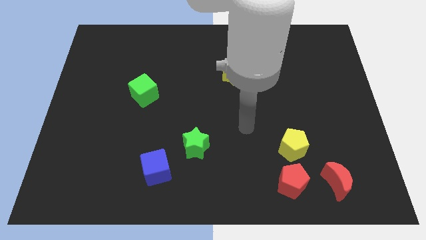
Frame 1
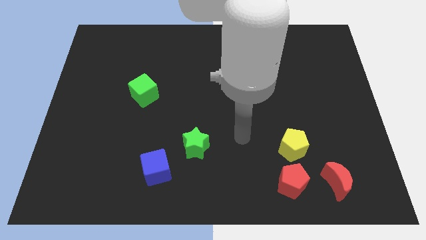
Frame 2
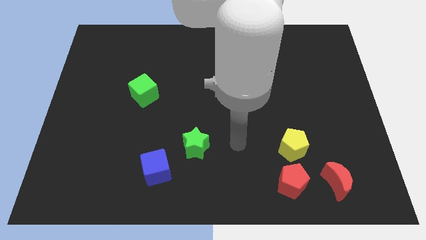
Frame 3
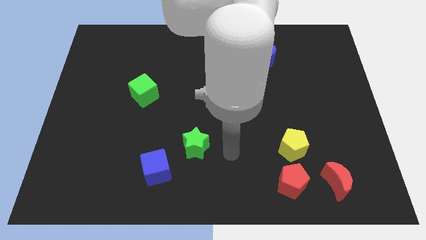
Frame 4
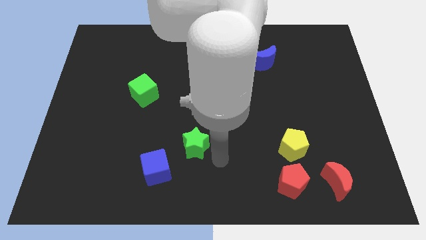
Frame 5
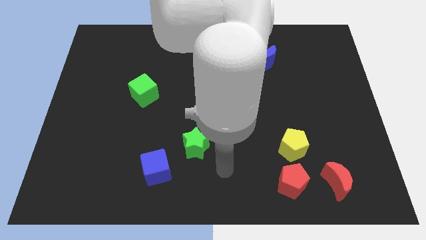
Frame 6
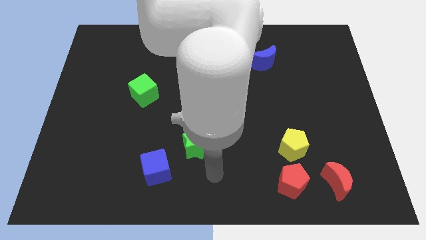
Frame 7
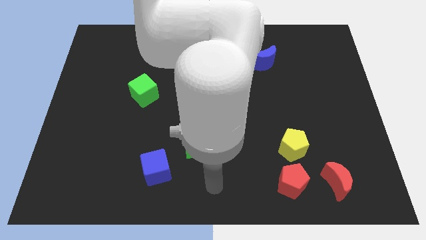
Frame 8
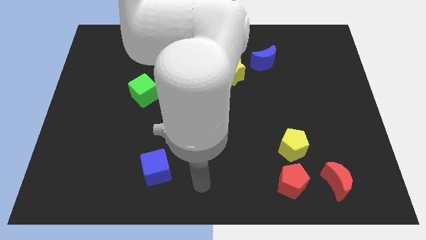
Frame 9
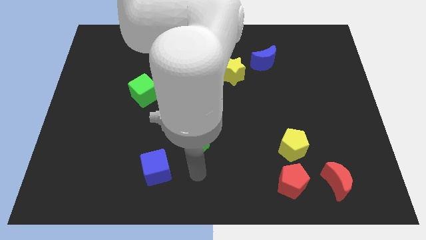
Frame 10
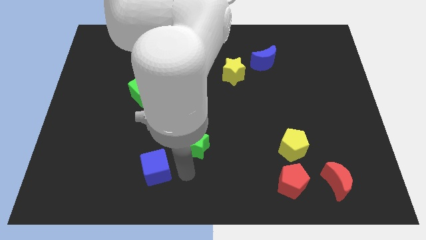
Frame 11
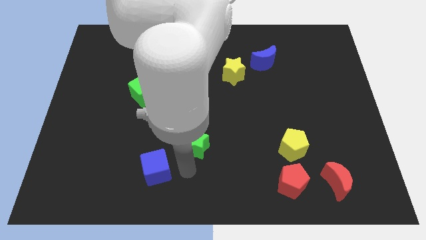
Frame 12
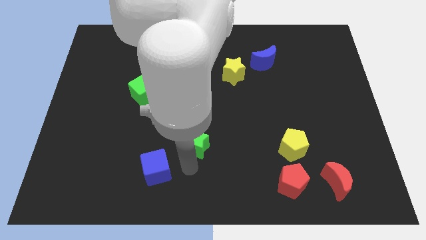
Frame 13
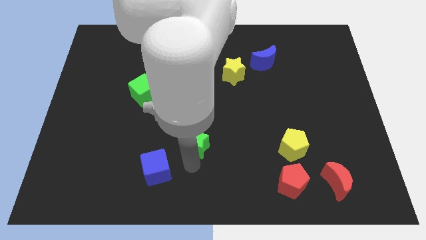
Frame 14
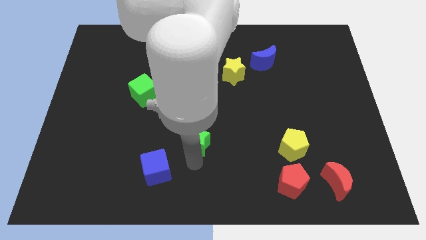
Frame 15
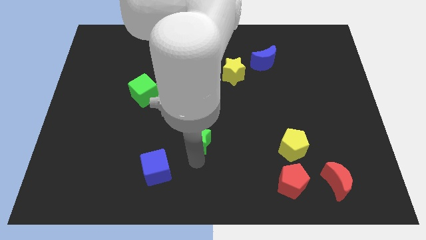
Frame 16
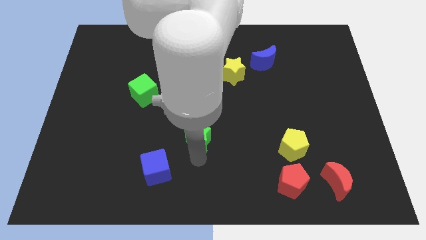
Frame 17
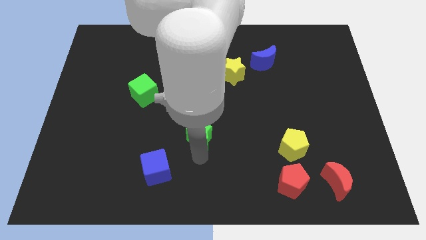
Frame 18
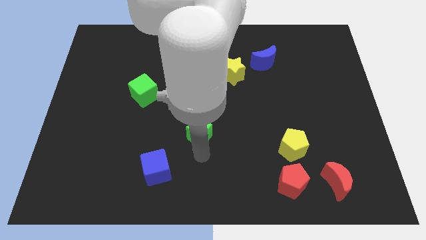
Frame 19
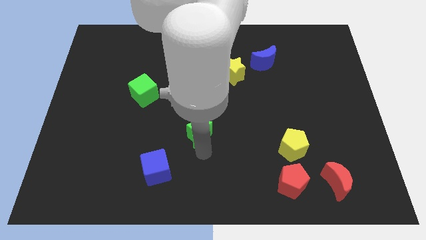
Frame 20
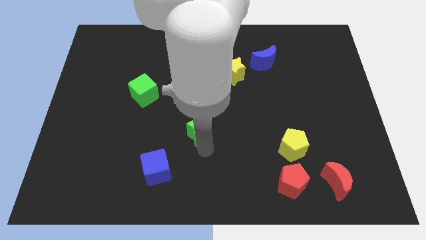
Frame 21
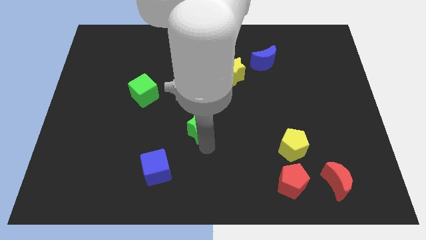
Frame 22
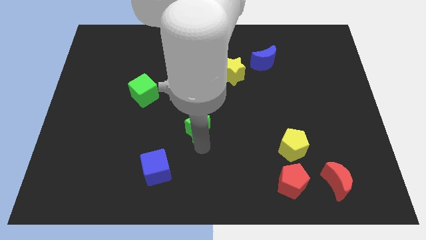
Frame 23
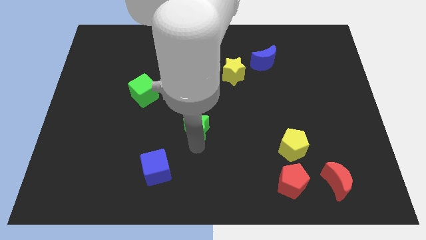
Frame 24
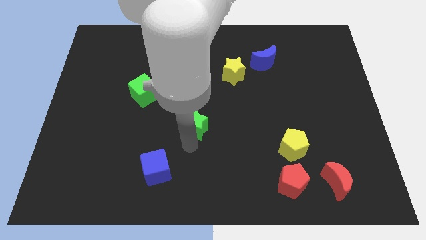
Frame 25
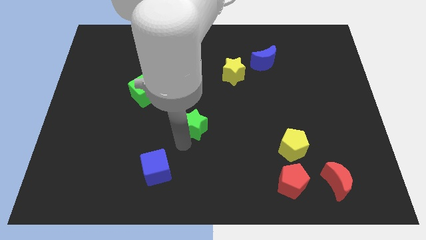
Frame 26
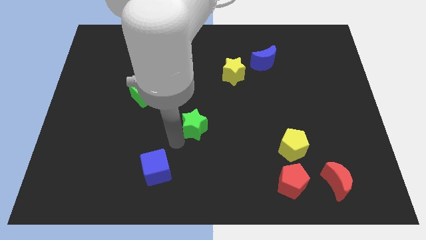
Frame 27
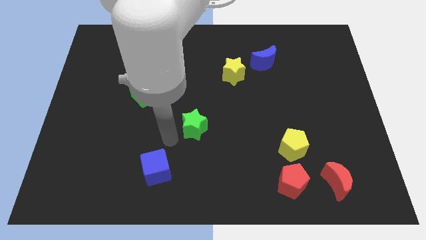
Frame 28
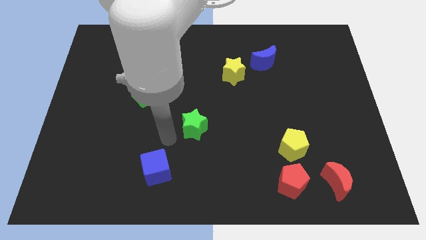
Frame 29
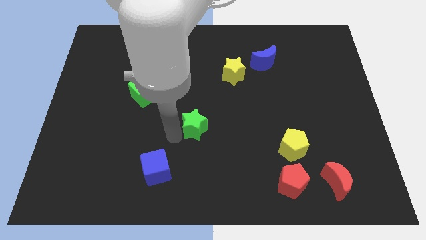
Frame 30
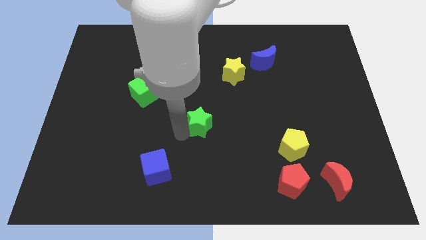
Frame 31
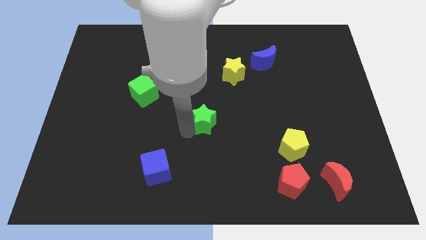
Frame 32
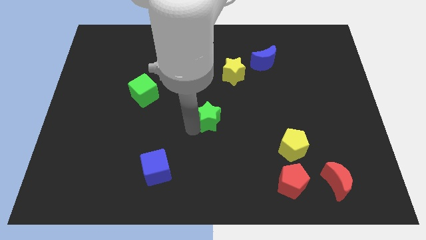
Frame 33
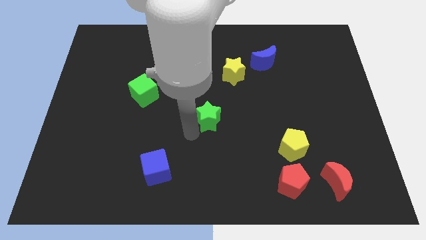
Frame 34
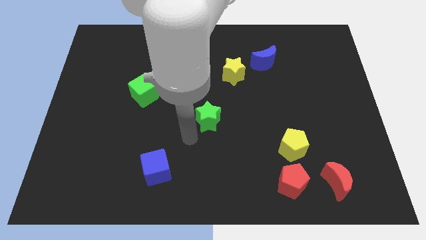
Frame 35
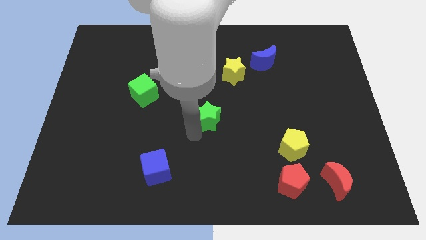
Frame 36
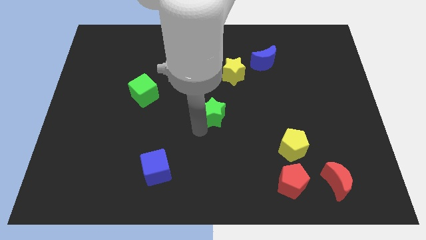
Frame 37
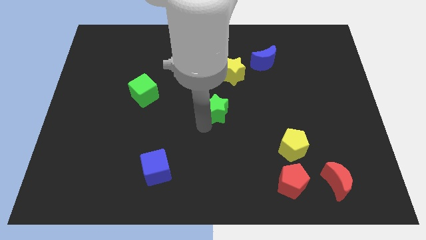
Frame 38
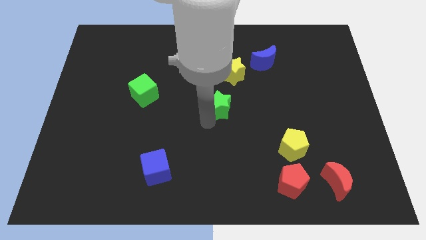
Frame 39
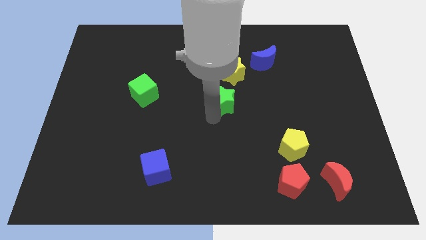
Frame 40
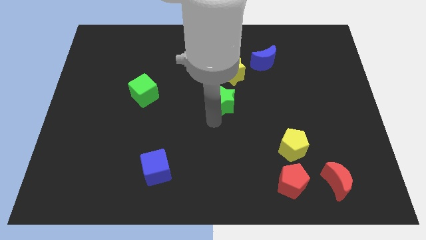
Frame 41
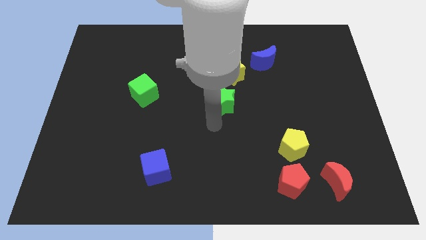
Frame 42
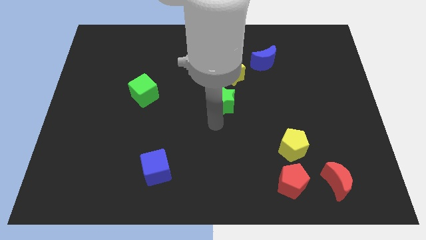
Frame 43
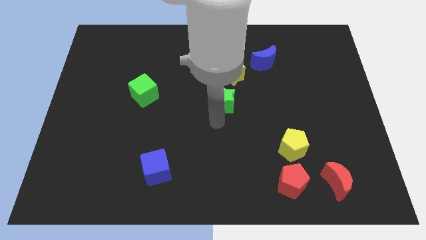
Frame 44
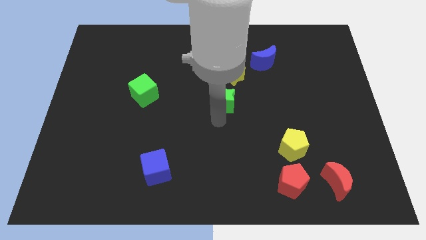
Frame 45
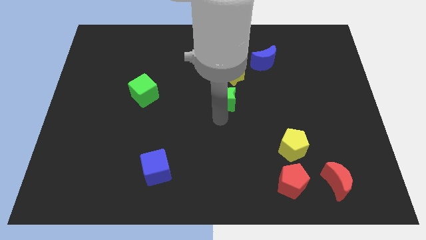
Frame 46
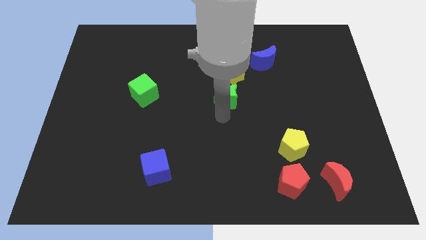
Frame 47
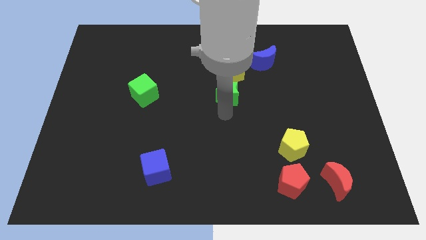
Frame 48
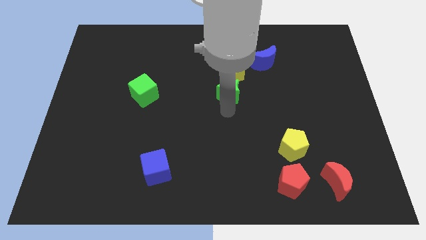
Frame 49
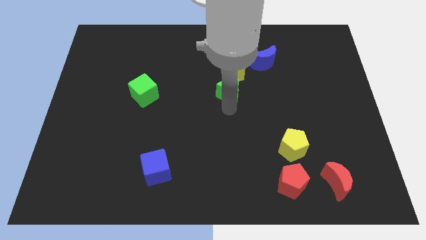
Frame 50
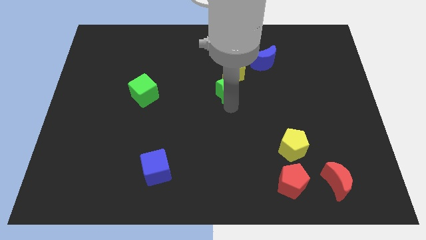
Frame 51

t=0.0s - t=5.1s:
put the green star next to the yellow star

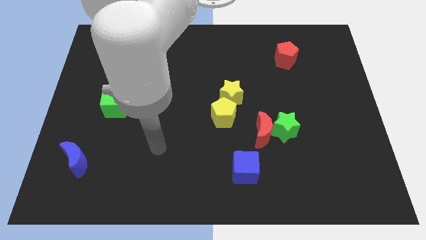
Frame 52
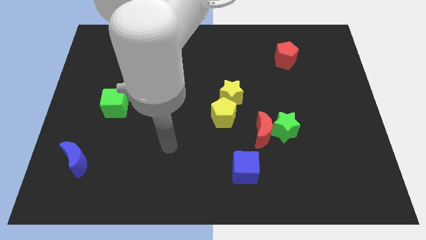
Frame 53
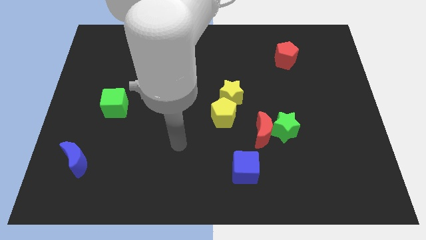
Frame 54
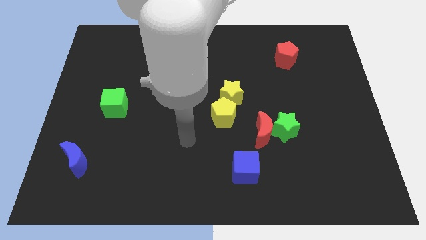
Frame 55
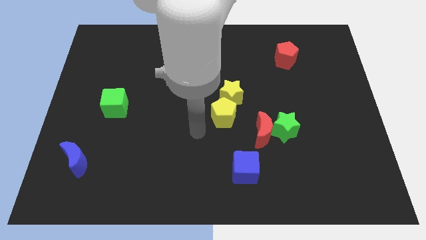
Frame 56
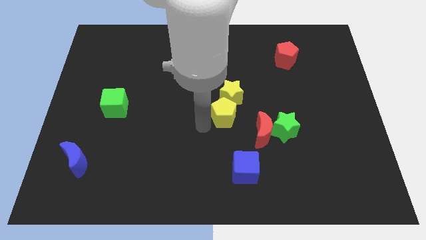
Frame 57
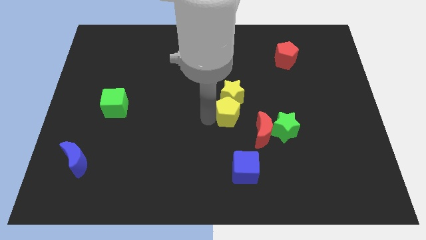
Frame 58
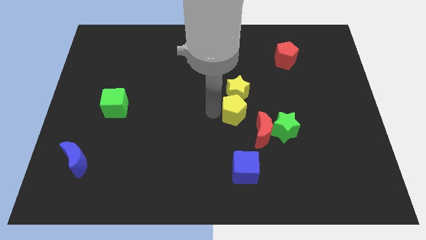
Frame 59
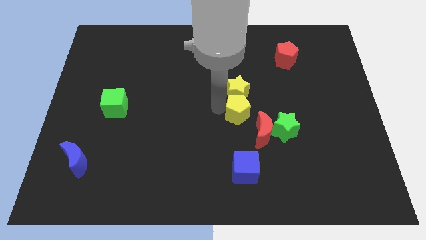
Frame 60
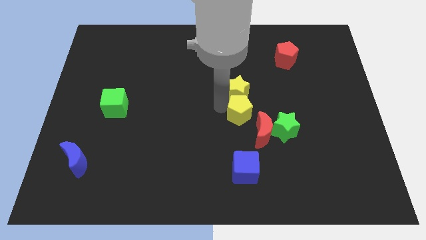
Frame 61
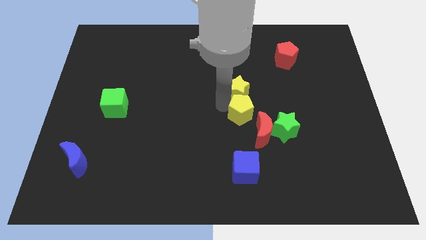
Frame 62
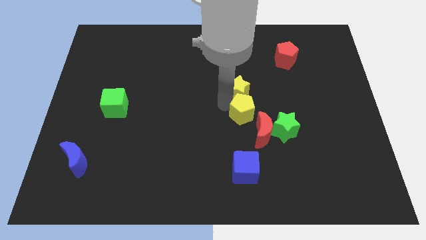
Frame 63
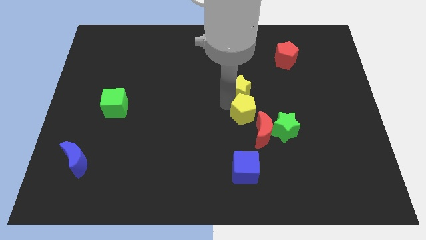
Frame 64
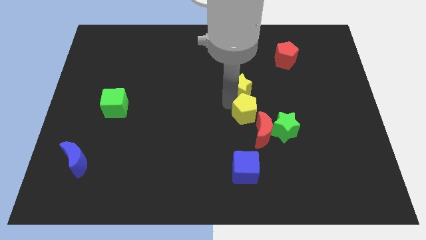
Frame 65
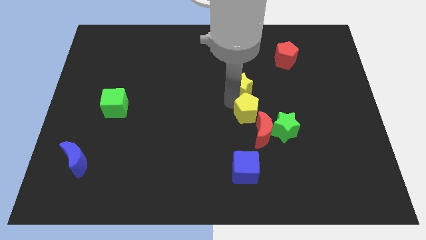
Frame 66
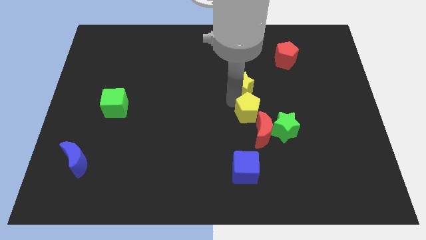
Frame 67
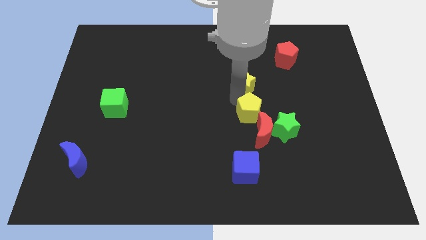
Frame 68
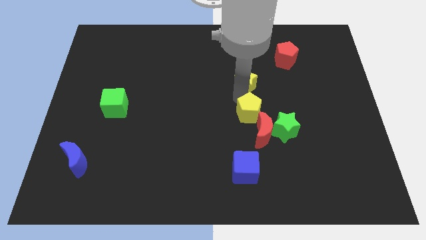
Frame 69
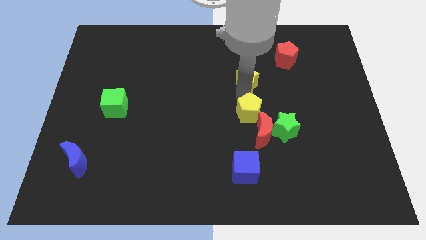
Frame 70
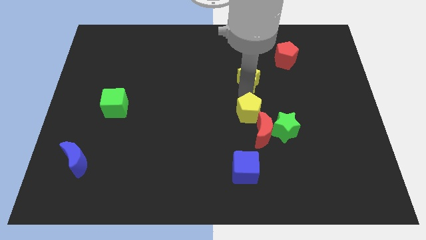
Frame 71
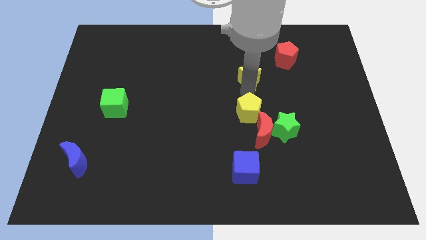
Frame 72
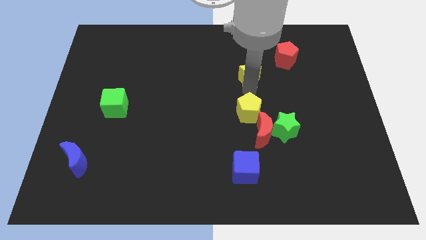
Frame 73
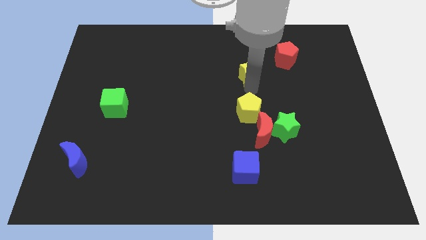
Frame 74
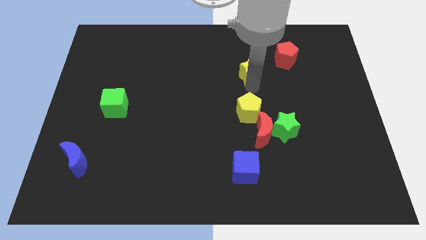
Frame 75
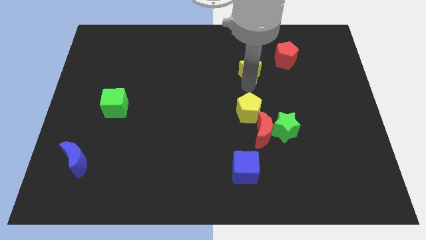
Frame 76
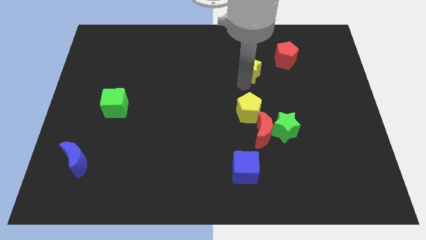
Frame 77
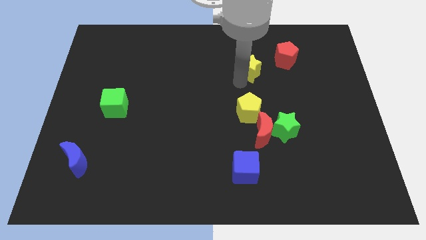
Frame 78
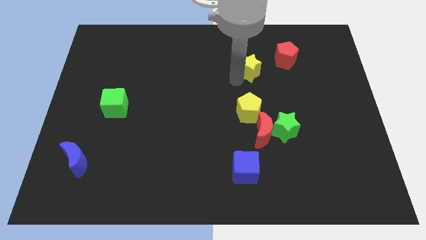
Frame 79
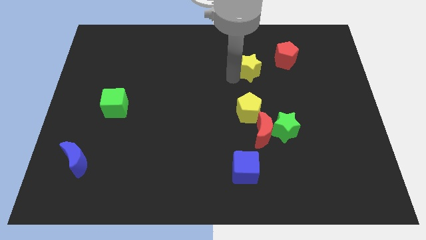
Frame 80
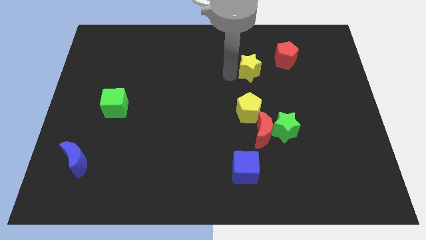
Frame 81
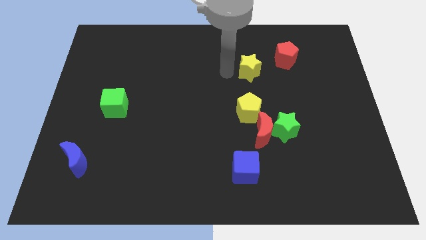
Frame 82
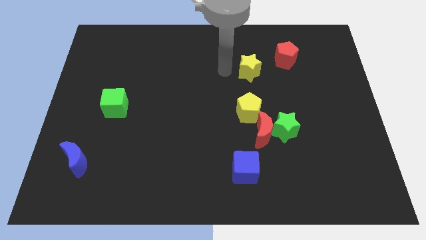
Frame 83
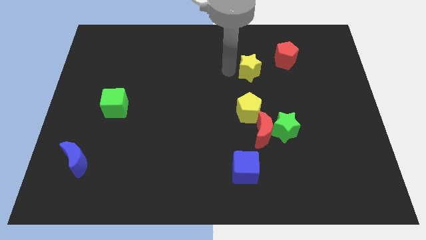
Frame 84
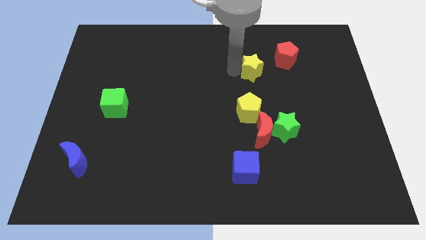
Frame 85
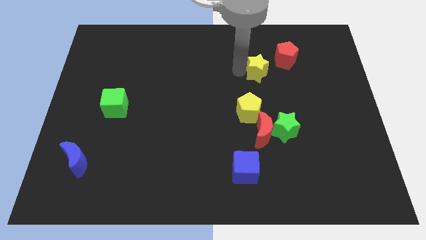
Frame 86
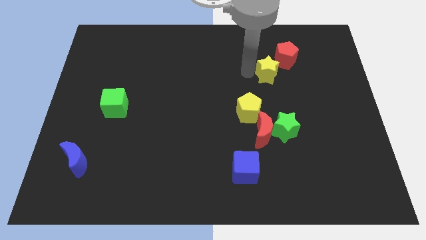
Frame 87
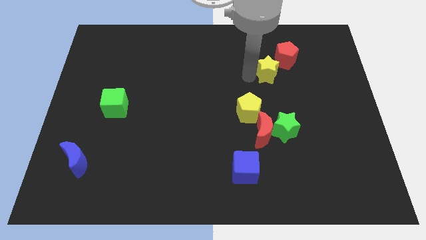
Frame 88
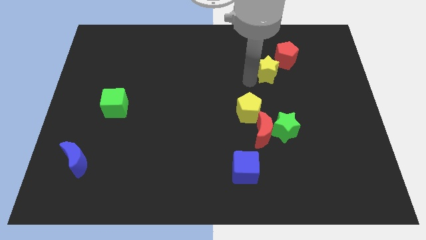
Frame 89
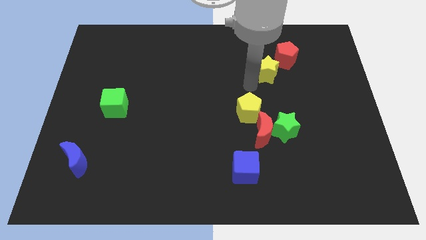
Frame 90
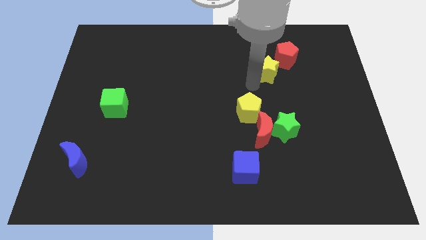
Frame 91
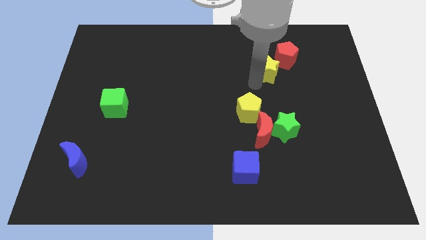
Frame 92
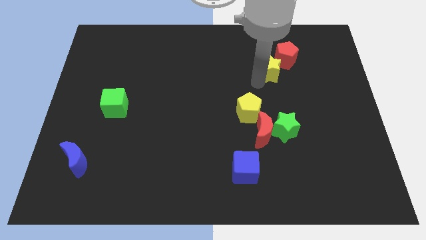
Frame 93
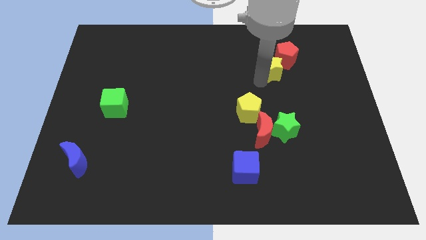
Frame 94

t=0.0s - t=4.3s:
move the yellow star close to the red pentagon
